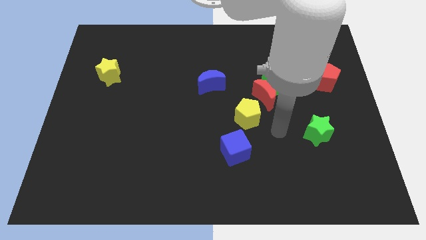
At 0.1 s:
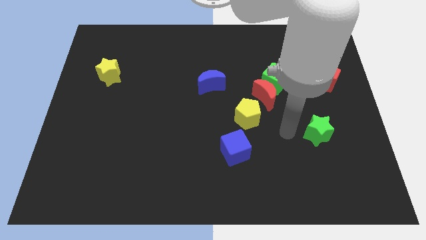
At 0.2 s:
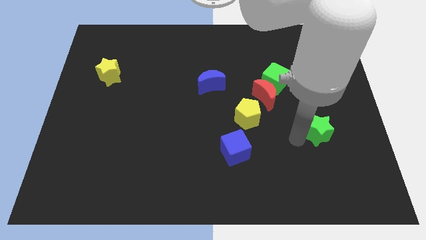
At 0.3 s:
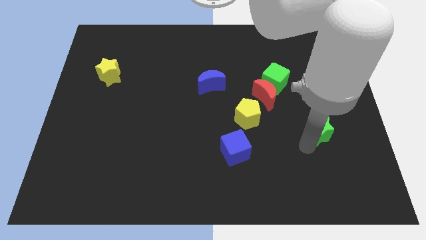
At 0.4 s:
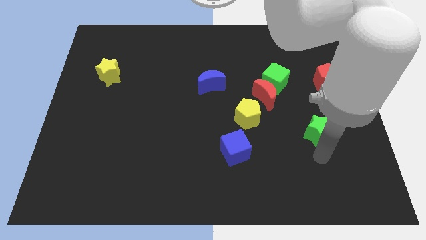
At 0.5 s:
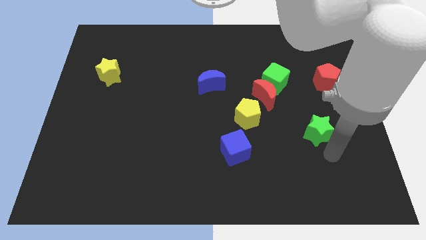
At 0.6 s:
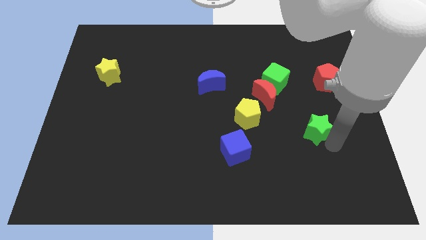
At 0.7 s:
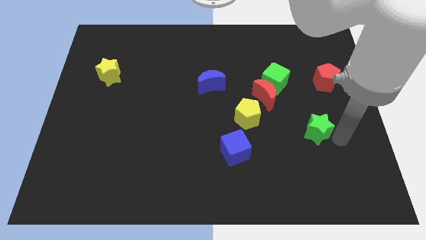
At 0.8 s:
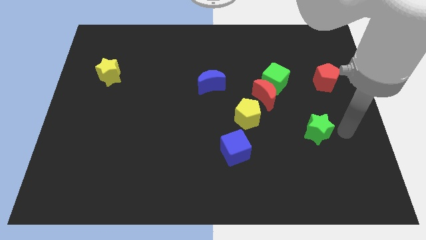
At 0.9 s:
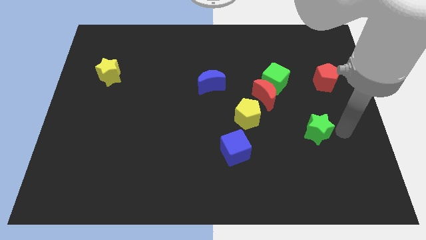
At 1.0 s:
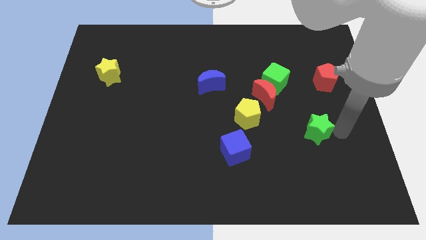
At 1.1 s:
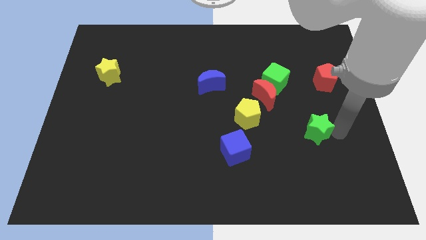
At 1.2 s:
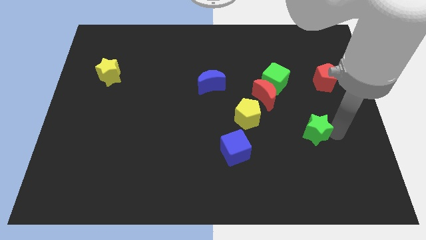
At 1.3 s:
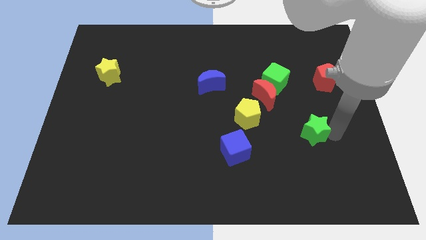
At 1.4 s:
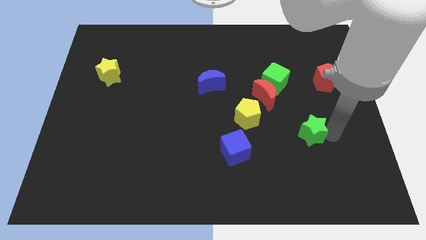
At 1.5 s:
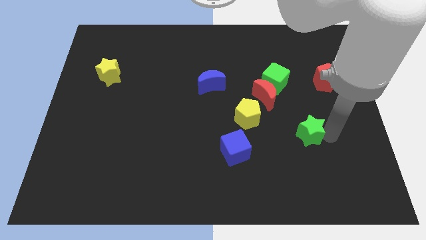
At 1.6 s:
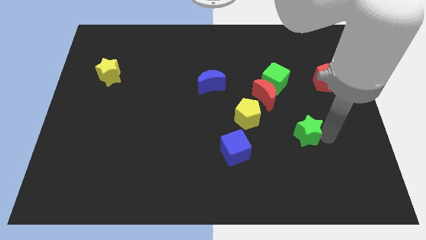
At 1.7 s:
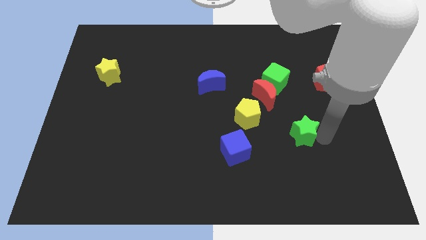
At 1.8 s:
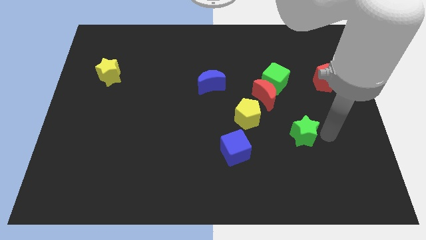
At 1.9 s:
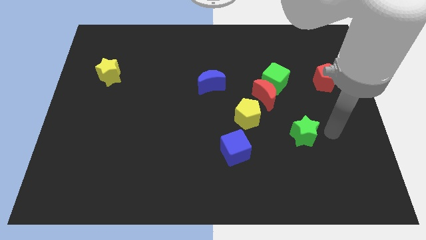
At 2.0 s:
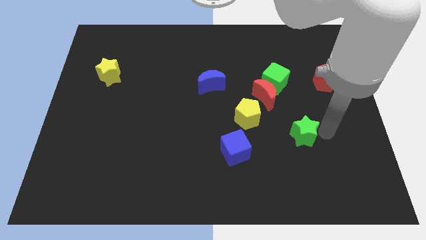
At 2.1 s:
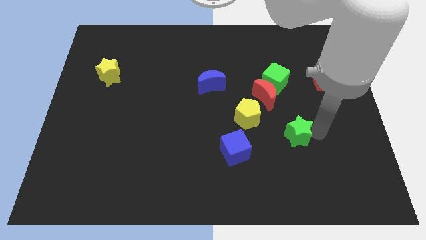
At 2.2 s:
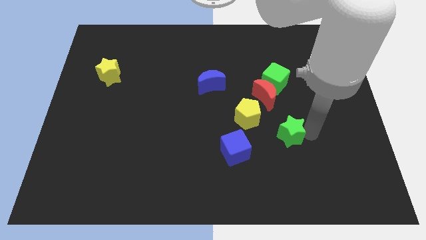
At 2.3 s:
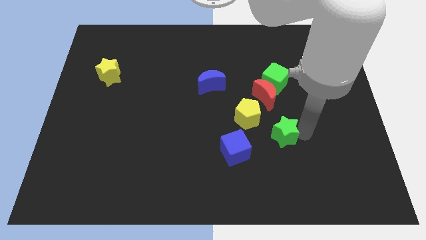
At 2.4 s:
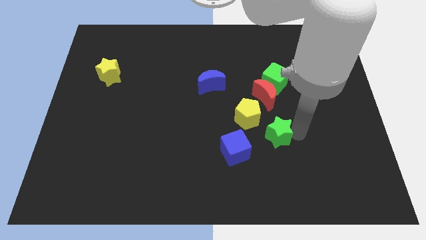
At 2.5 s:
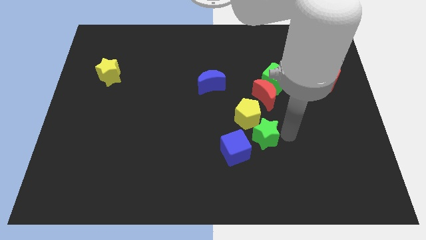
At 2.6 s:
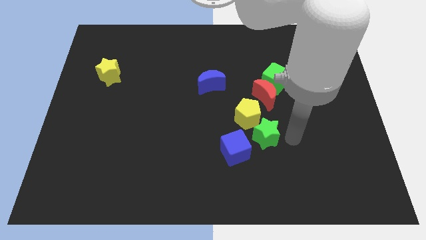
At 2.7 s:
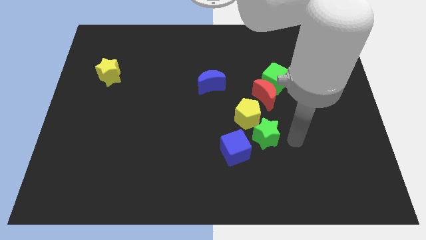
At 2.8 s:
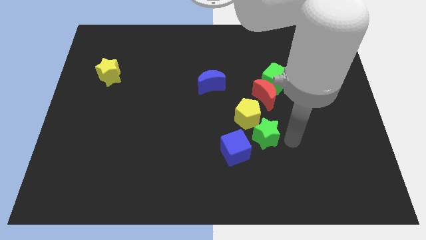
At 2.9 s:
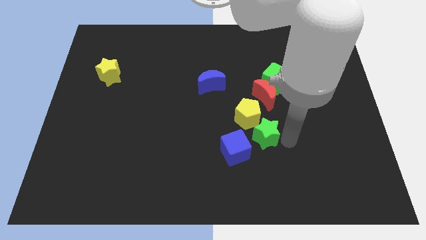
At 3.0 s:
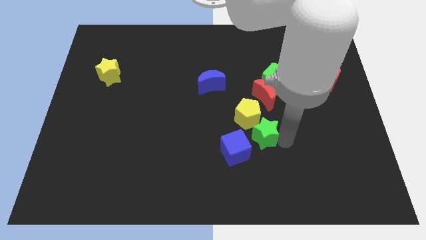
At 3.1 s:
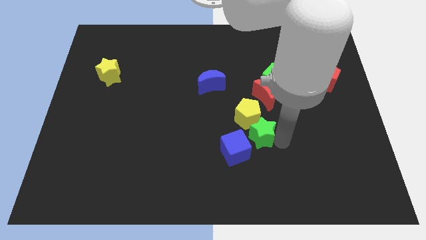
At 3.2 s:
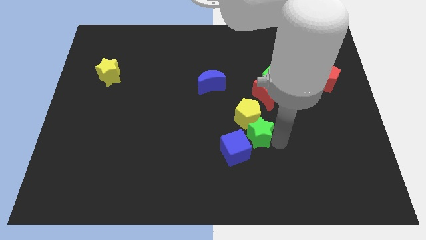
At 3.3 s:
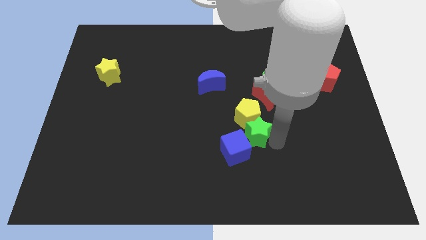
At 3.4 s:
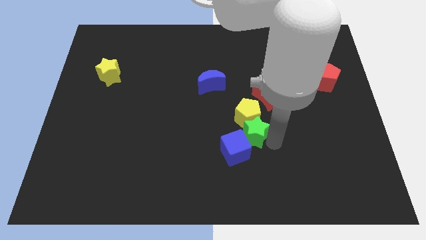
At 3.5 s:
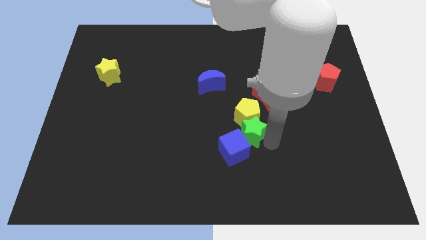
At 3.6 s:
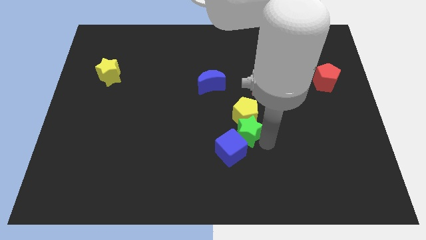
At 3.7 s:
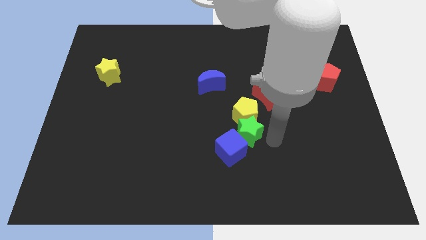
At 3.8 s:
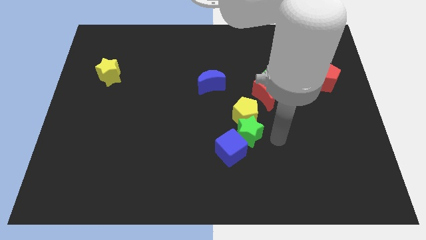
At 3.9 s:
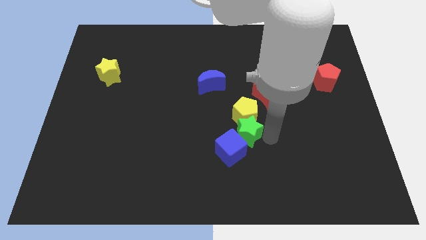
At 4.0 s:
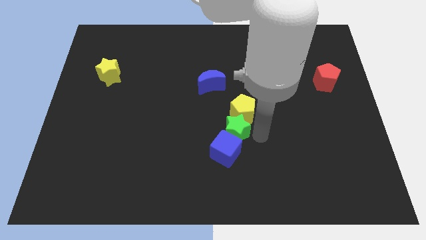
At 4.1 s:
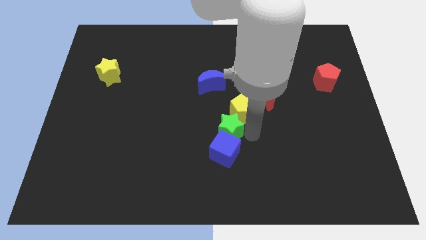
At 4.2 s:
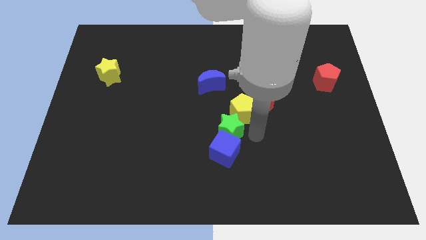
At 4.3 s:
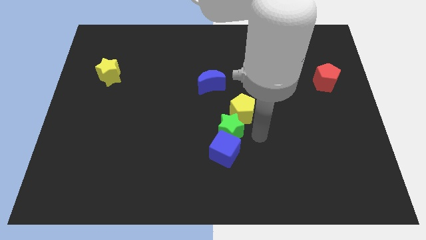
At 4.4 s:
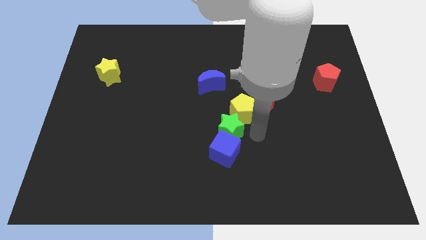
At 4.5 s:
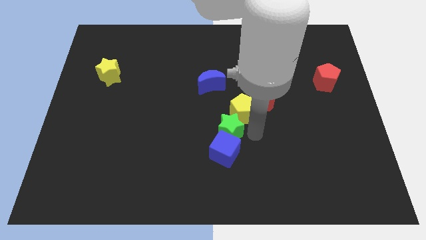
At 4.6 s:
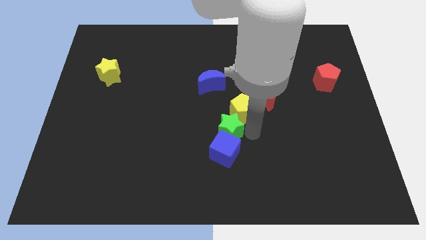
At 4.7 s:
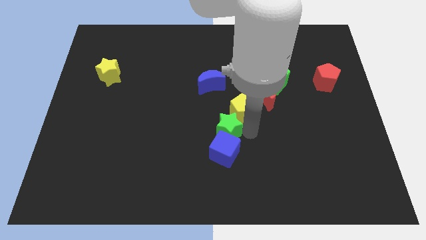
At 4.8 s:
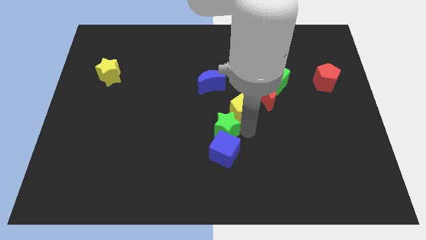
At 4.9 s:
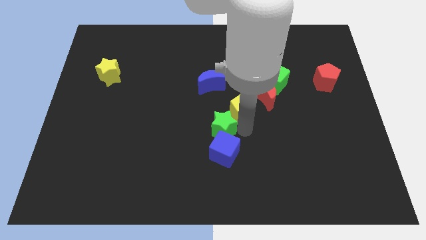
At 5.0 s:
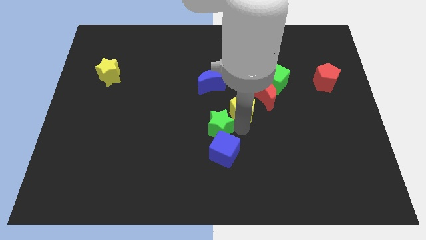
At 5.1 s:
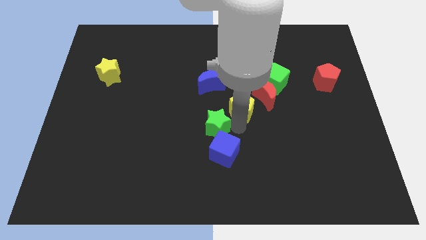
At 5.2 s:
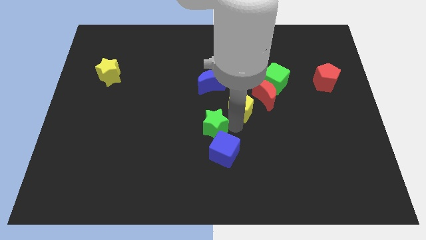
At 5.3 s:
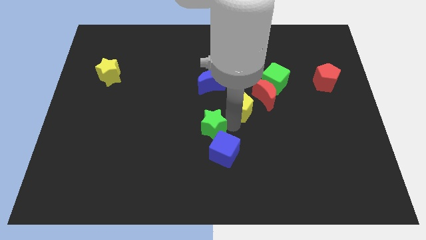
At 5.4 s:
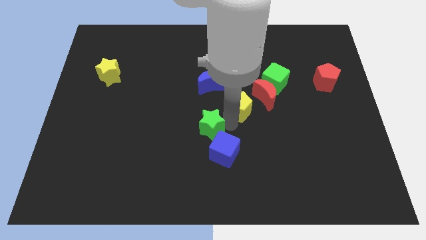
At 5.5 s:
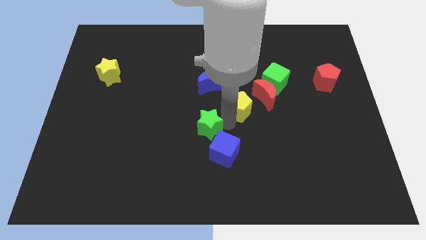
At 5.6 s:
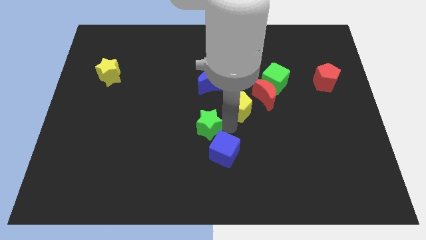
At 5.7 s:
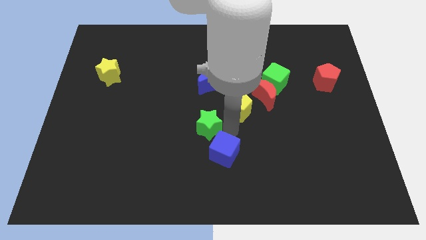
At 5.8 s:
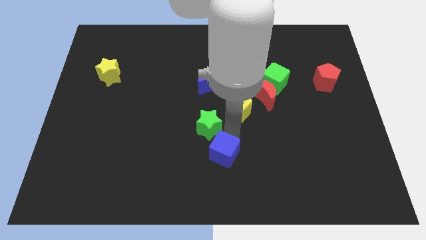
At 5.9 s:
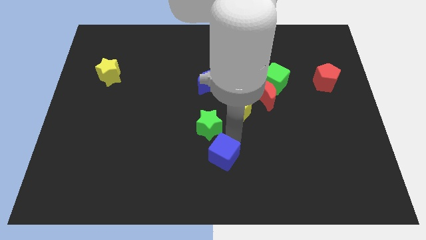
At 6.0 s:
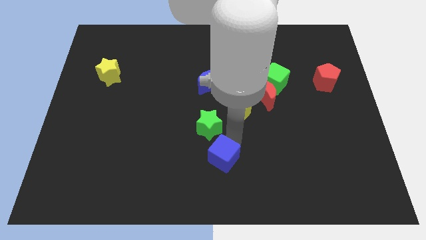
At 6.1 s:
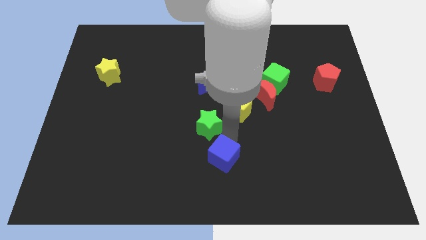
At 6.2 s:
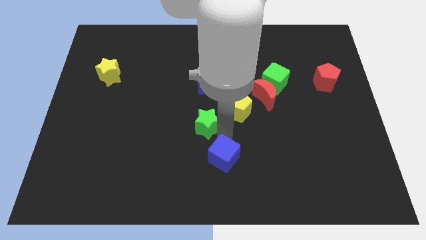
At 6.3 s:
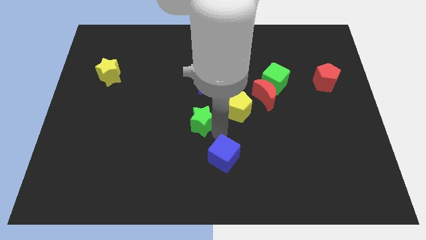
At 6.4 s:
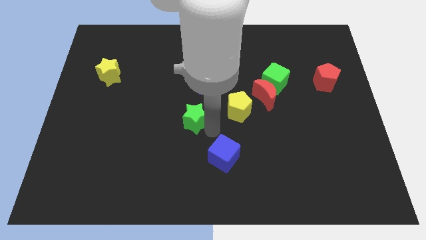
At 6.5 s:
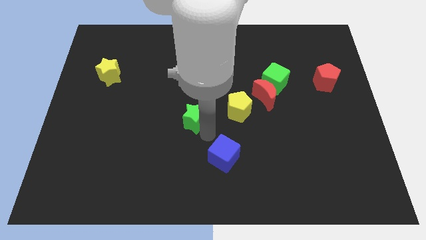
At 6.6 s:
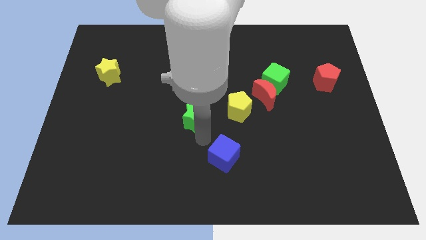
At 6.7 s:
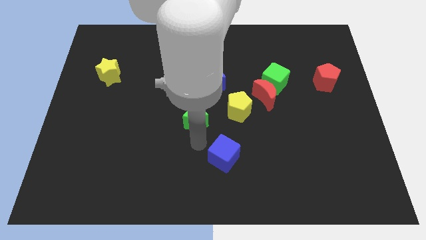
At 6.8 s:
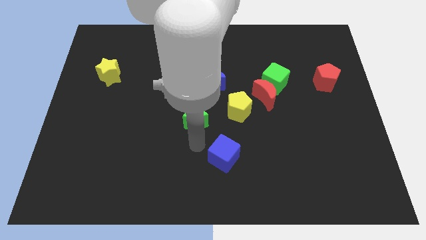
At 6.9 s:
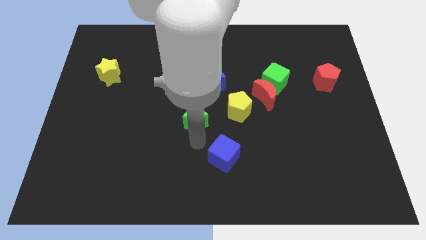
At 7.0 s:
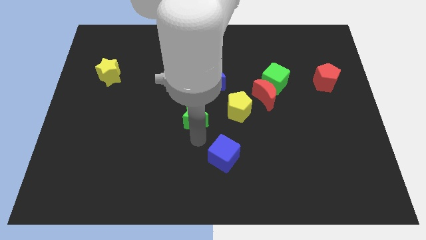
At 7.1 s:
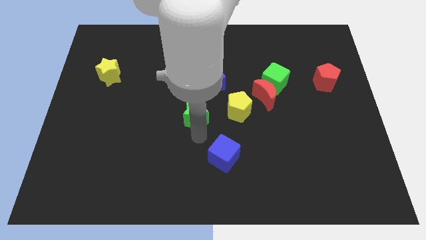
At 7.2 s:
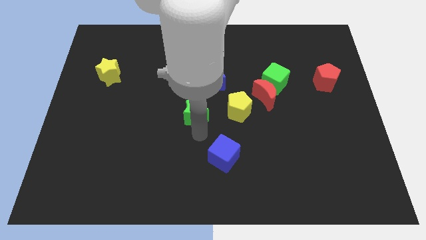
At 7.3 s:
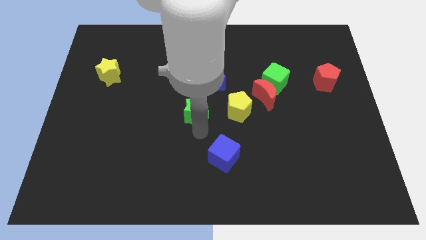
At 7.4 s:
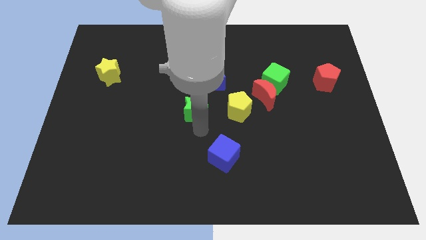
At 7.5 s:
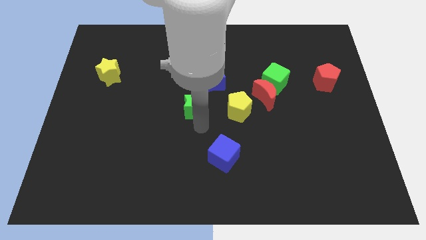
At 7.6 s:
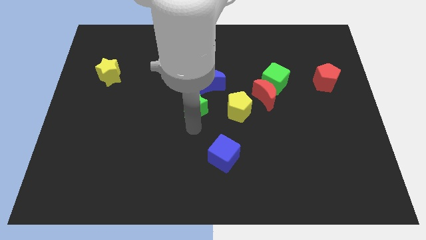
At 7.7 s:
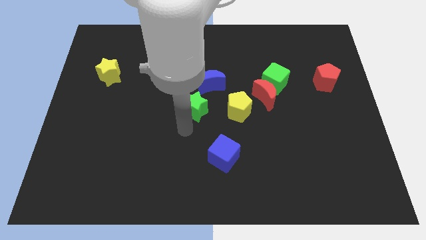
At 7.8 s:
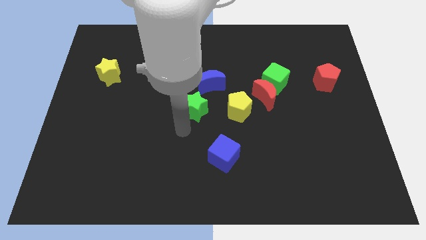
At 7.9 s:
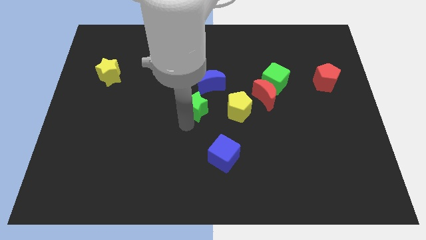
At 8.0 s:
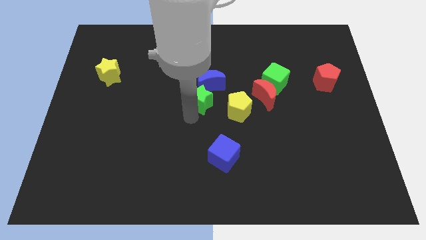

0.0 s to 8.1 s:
push the green star next to the blue moon
